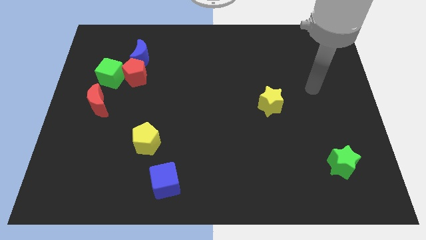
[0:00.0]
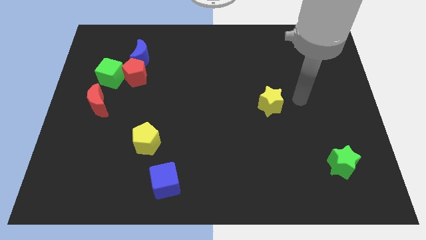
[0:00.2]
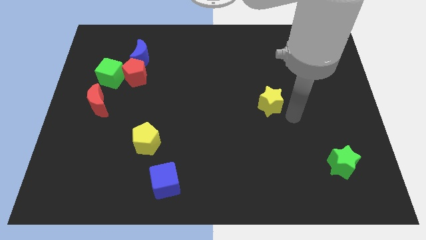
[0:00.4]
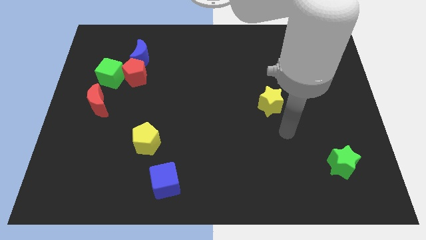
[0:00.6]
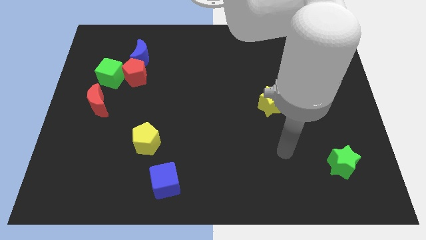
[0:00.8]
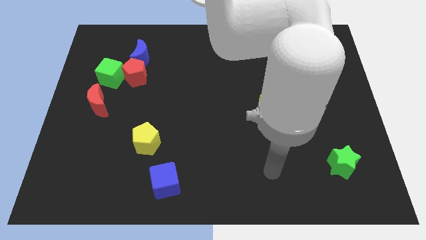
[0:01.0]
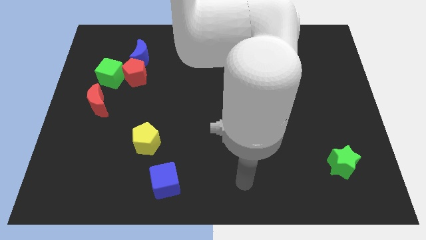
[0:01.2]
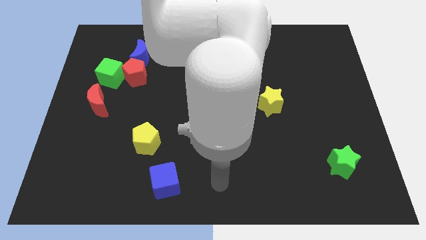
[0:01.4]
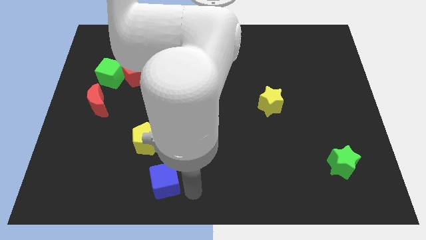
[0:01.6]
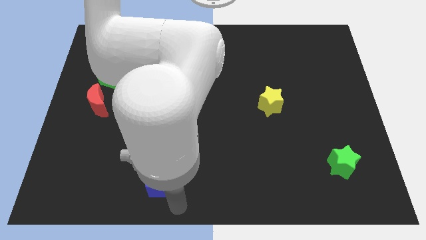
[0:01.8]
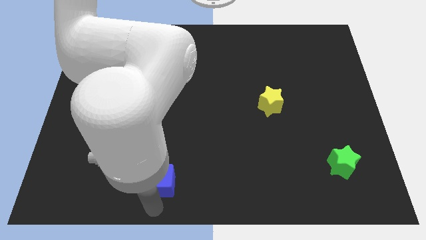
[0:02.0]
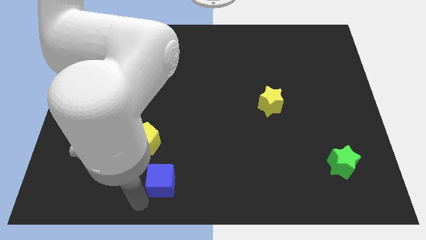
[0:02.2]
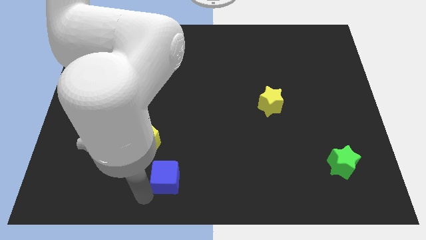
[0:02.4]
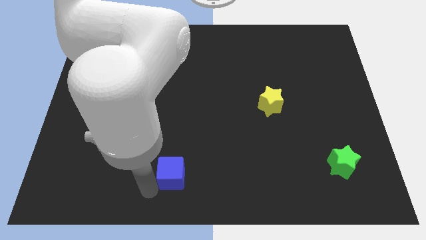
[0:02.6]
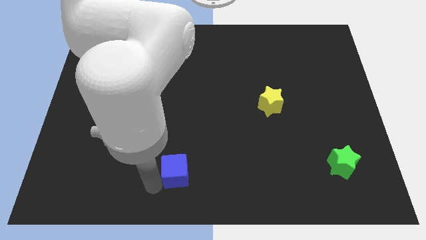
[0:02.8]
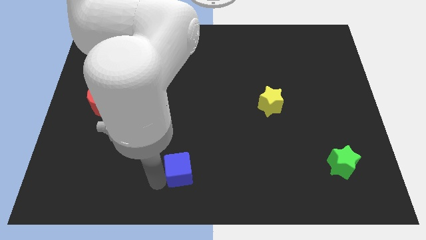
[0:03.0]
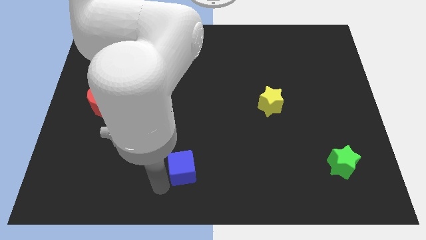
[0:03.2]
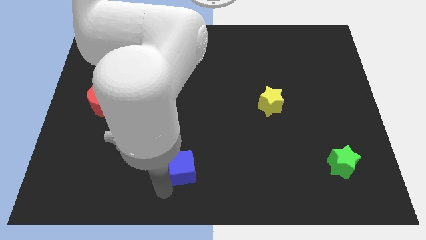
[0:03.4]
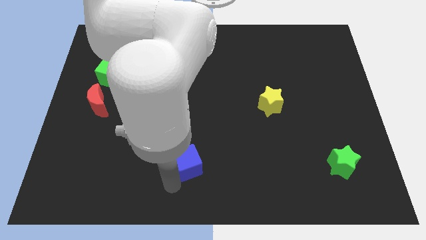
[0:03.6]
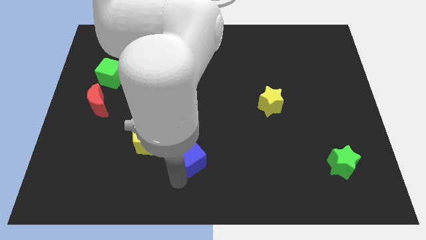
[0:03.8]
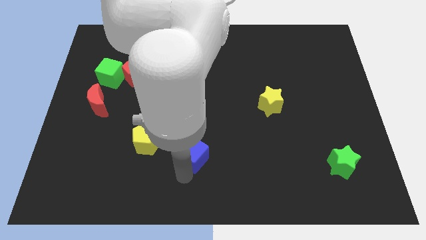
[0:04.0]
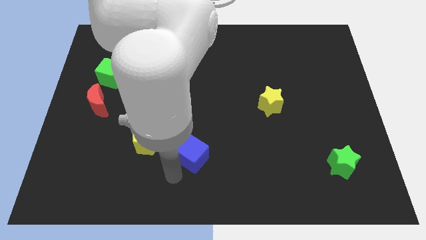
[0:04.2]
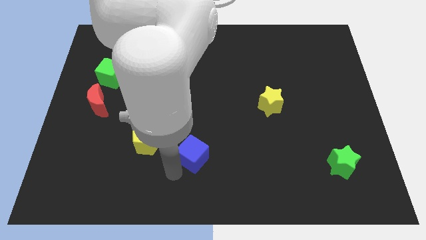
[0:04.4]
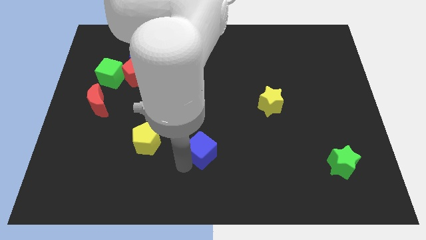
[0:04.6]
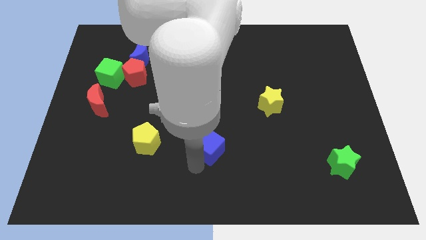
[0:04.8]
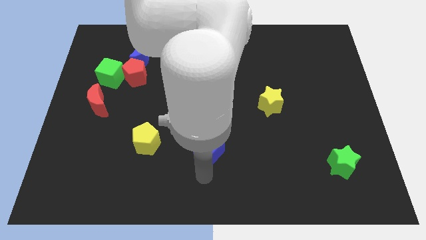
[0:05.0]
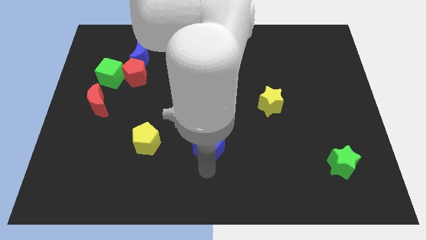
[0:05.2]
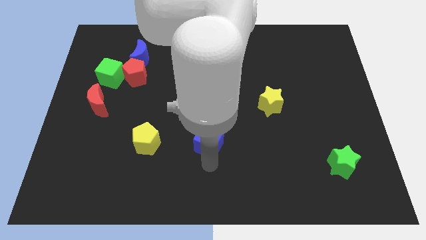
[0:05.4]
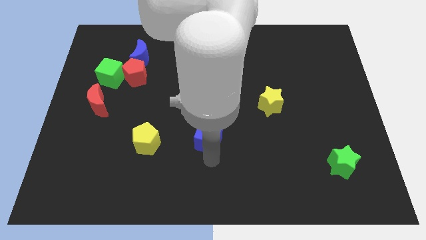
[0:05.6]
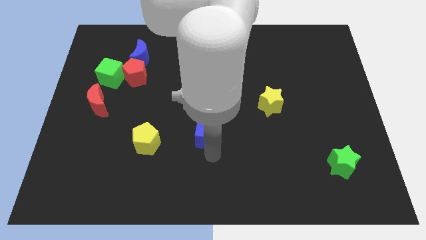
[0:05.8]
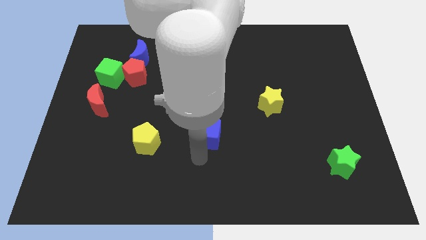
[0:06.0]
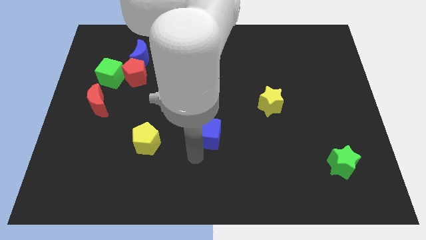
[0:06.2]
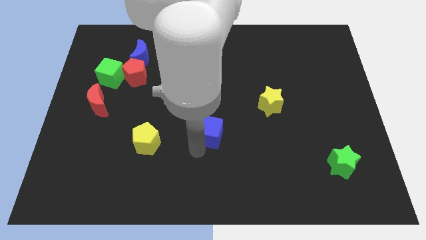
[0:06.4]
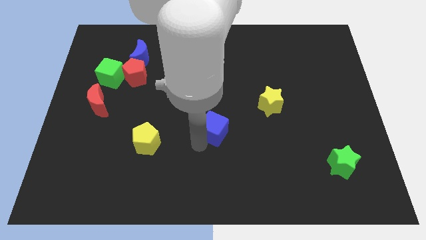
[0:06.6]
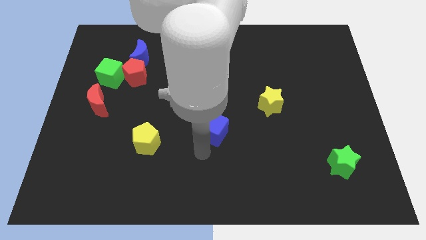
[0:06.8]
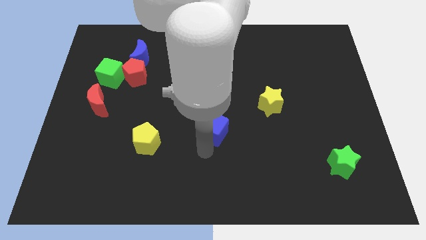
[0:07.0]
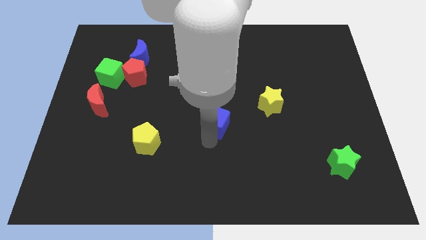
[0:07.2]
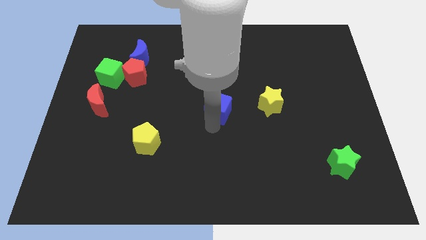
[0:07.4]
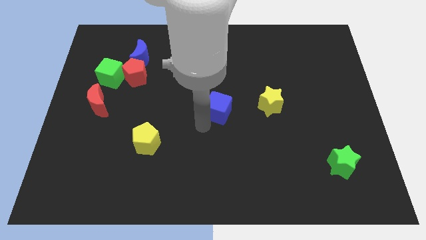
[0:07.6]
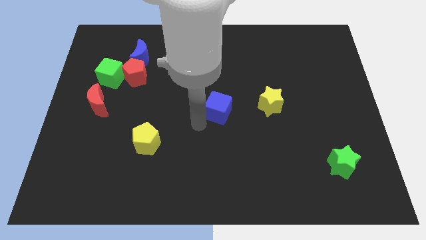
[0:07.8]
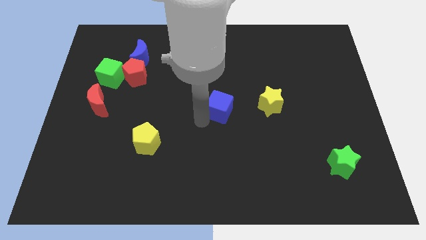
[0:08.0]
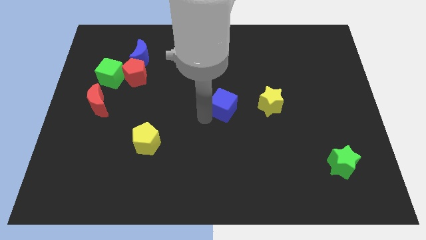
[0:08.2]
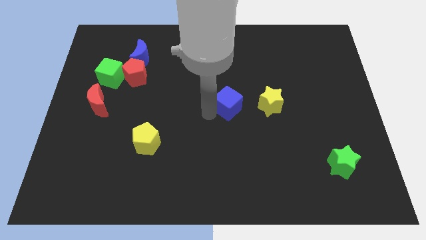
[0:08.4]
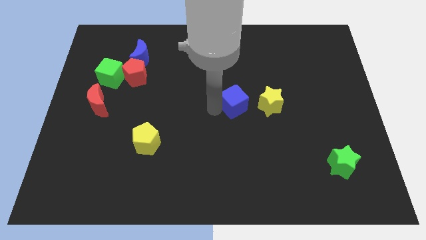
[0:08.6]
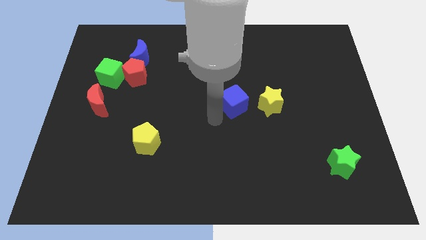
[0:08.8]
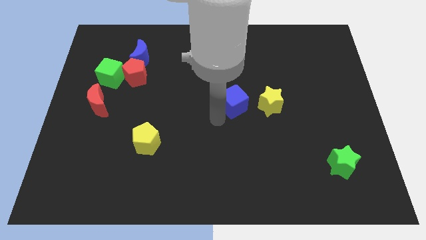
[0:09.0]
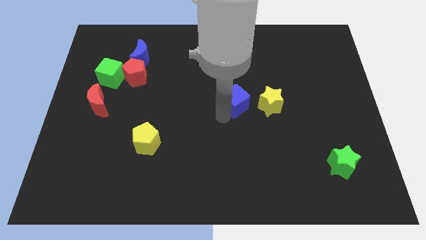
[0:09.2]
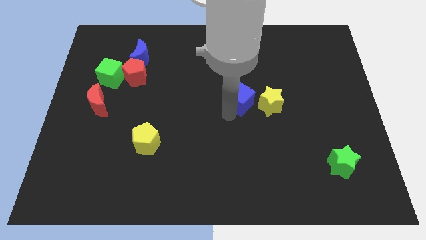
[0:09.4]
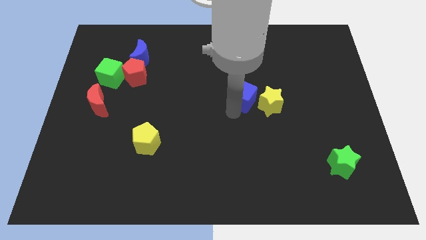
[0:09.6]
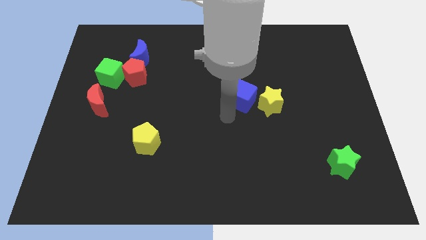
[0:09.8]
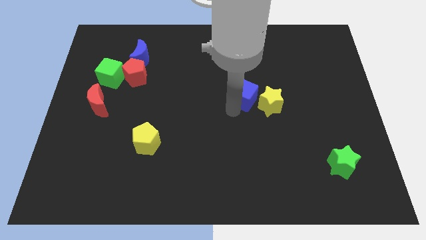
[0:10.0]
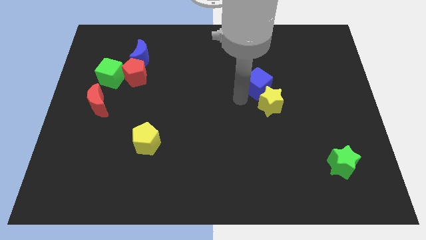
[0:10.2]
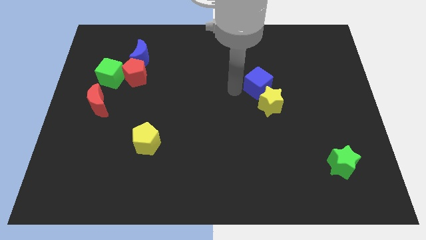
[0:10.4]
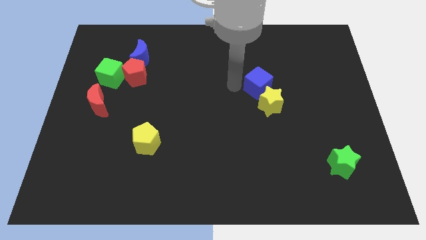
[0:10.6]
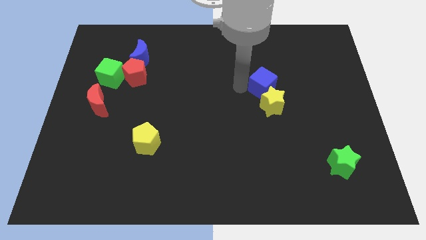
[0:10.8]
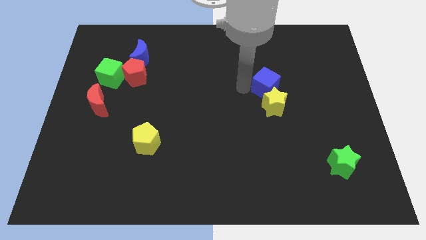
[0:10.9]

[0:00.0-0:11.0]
move the blue cube diagonally up and to the right of the yellow star

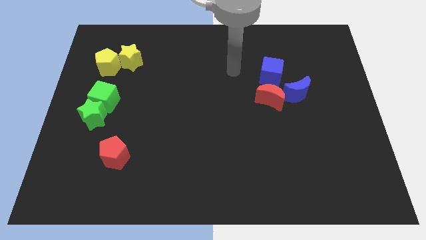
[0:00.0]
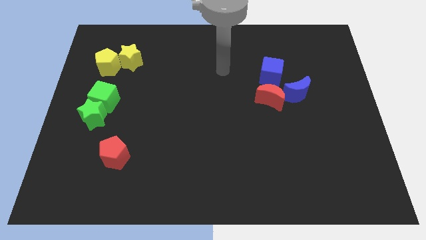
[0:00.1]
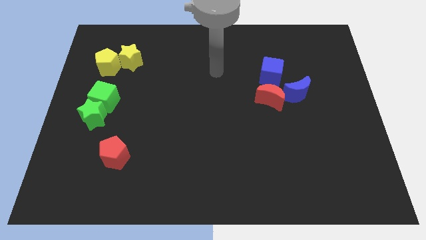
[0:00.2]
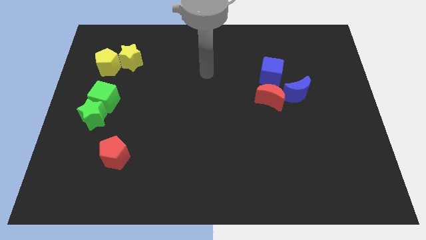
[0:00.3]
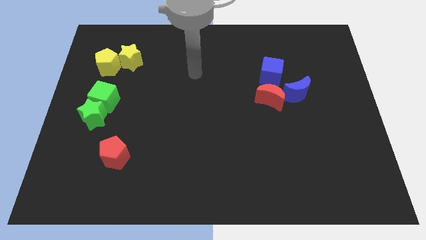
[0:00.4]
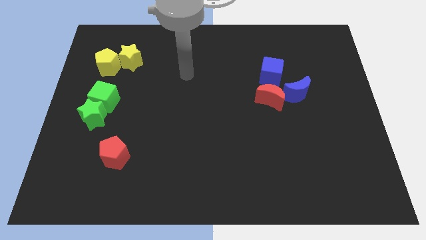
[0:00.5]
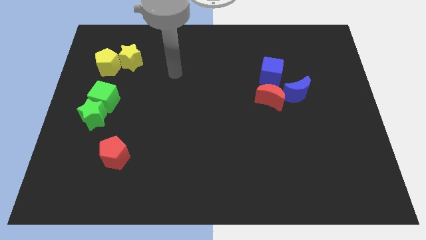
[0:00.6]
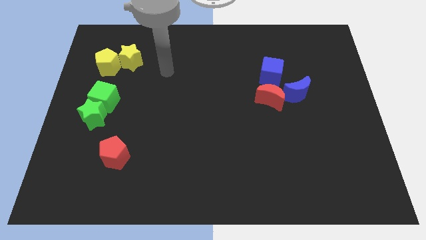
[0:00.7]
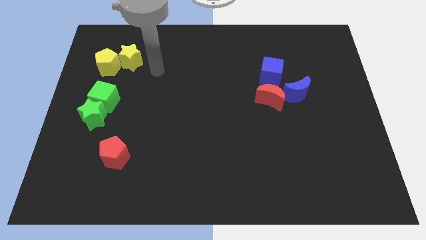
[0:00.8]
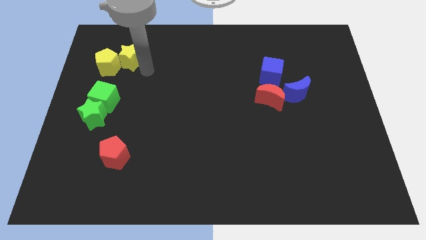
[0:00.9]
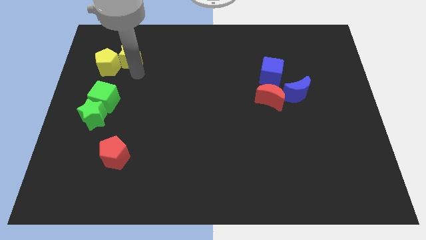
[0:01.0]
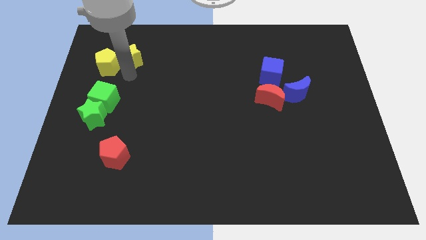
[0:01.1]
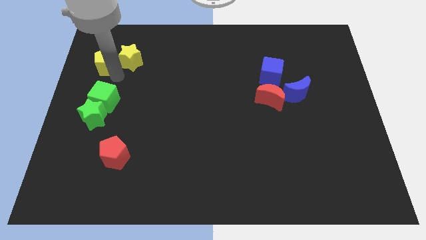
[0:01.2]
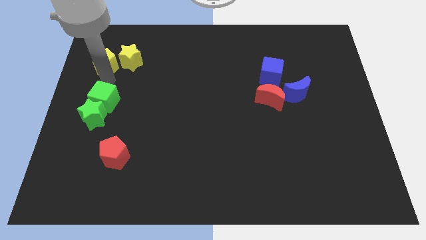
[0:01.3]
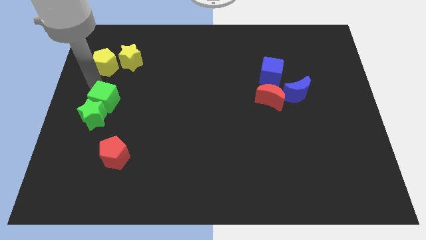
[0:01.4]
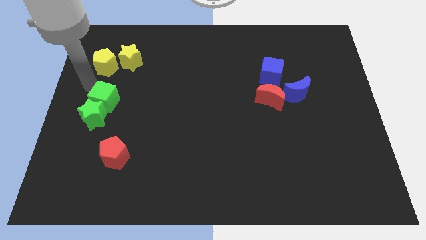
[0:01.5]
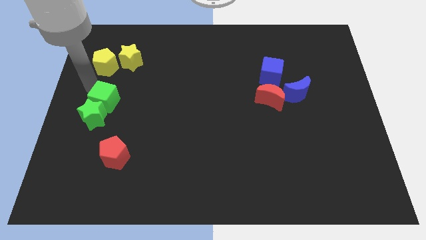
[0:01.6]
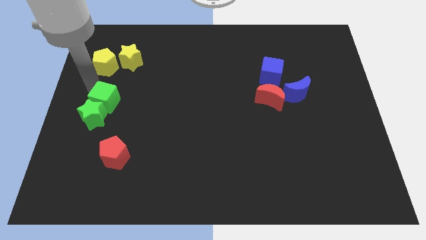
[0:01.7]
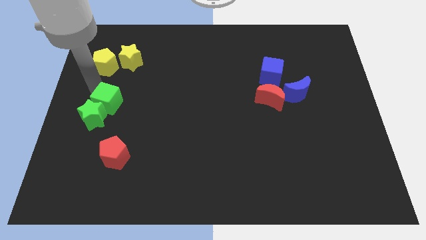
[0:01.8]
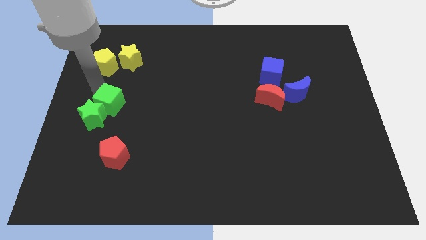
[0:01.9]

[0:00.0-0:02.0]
slide the green cube above the red pentagon
